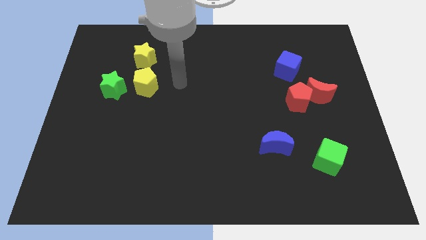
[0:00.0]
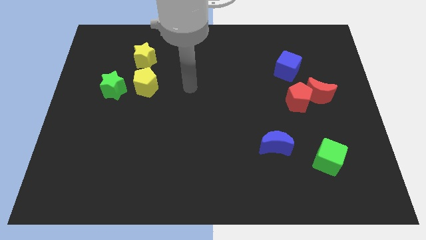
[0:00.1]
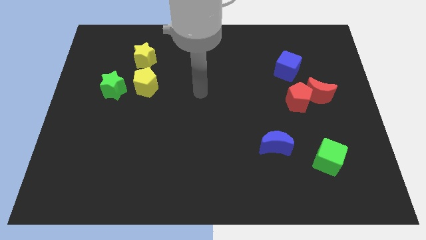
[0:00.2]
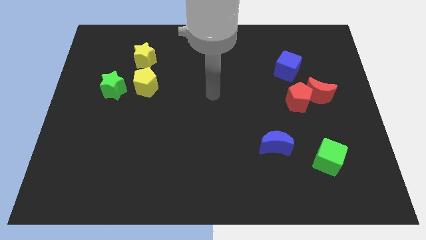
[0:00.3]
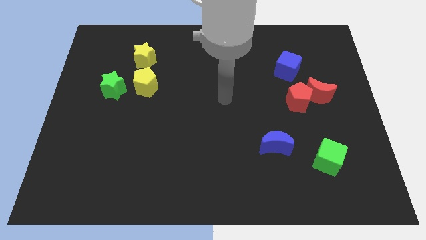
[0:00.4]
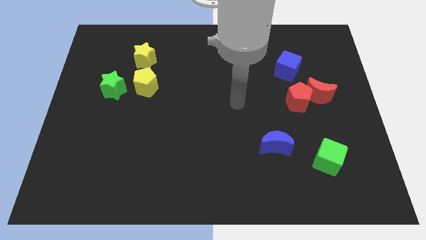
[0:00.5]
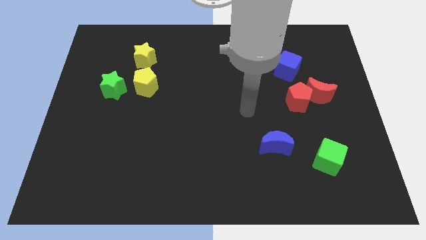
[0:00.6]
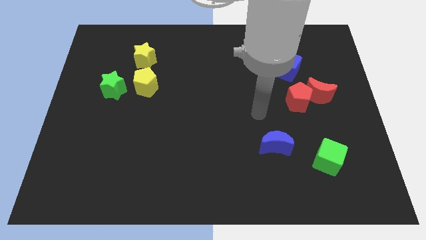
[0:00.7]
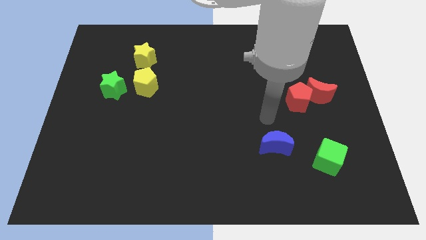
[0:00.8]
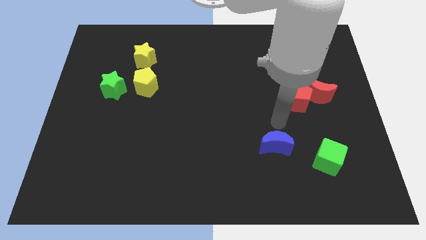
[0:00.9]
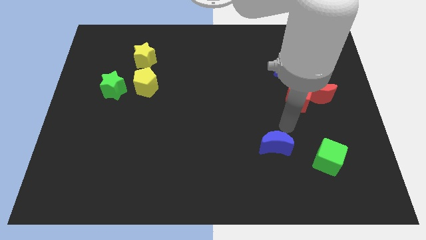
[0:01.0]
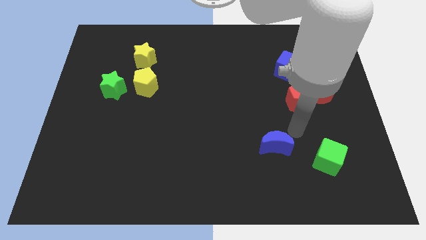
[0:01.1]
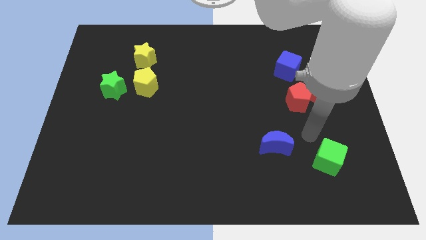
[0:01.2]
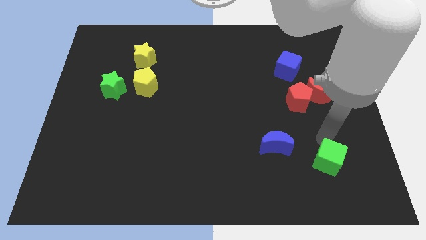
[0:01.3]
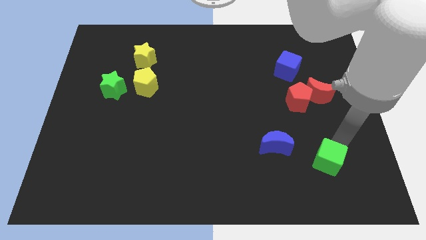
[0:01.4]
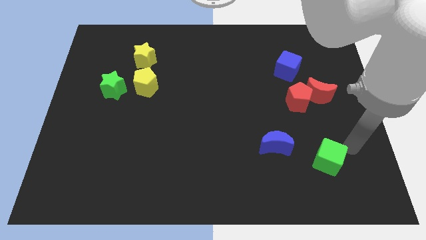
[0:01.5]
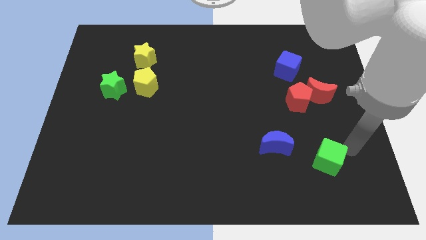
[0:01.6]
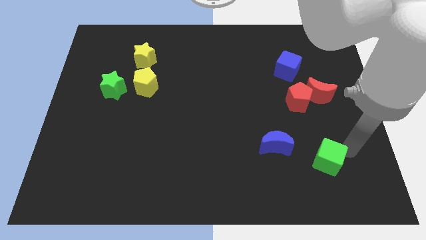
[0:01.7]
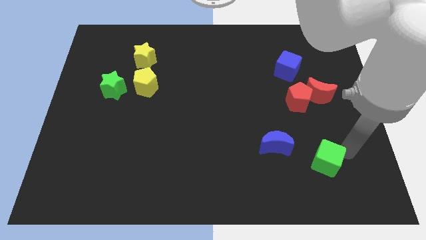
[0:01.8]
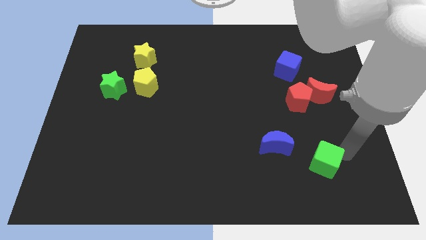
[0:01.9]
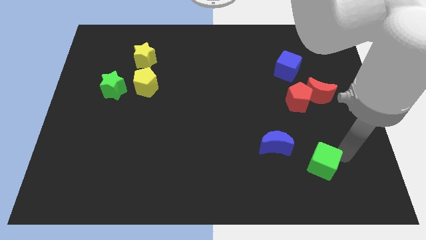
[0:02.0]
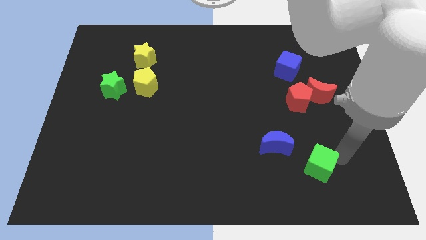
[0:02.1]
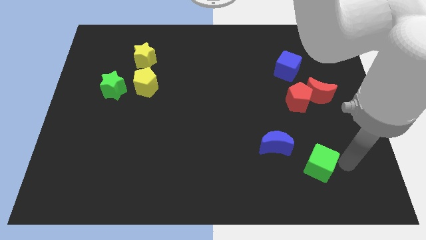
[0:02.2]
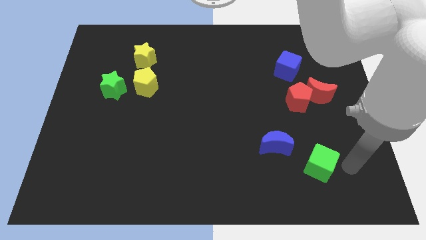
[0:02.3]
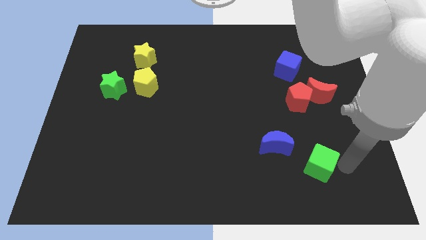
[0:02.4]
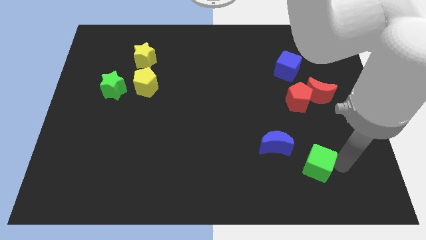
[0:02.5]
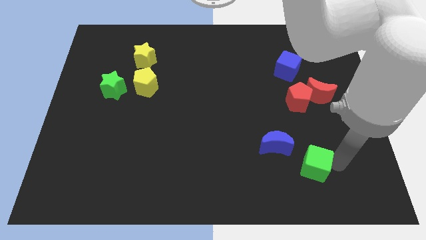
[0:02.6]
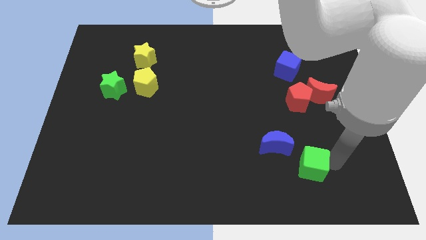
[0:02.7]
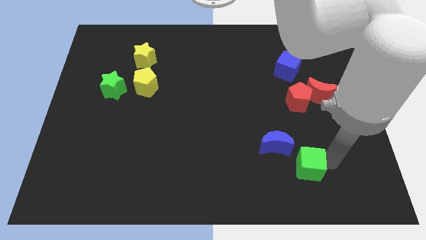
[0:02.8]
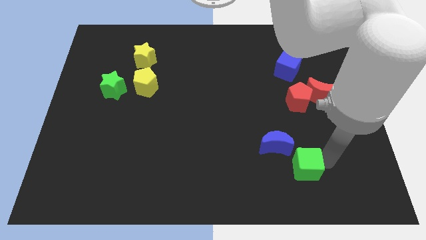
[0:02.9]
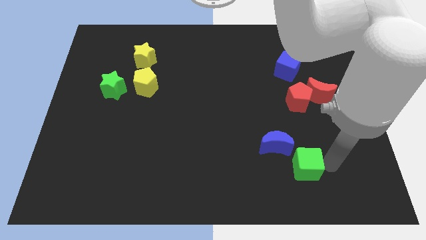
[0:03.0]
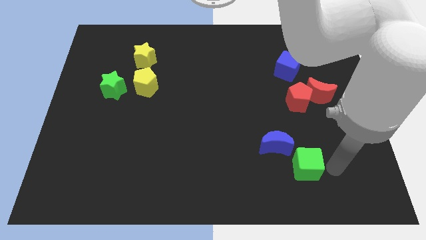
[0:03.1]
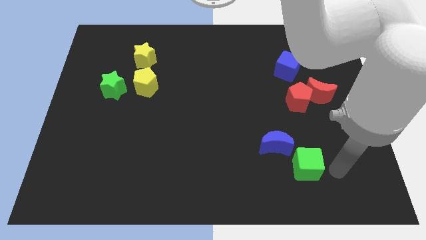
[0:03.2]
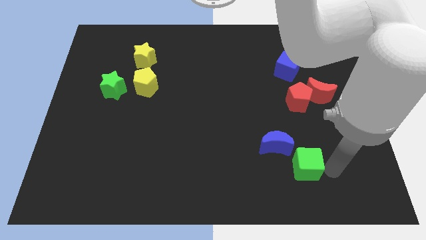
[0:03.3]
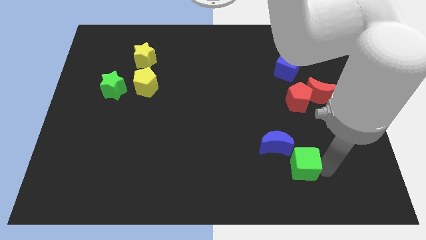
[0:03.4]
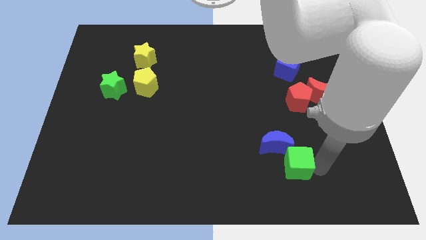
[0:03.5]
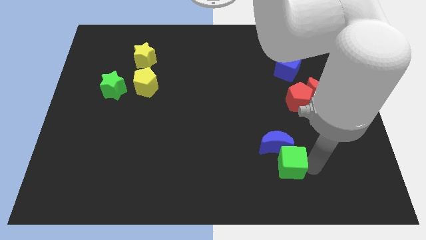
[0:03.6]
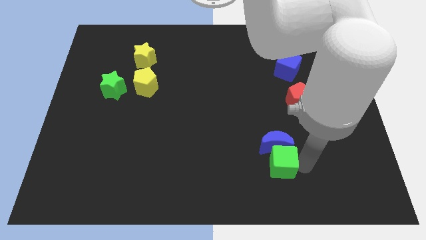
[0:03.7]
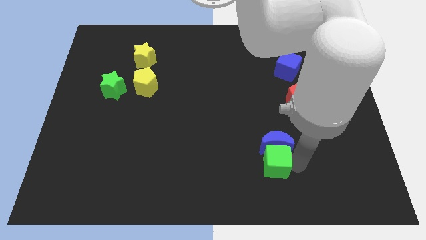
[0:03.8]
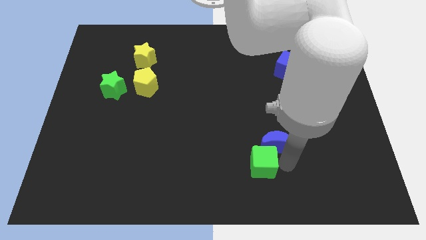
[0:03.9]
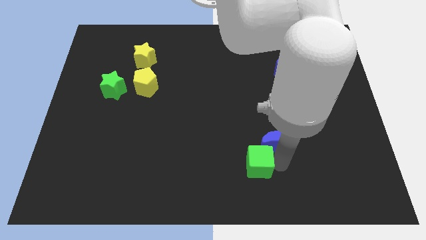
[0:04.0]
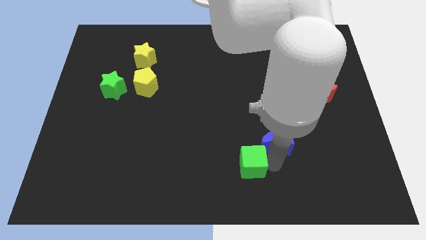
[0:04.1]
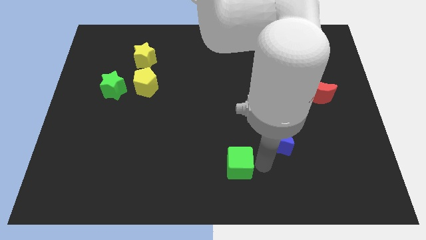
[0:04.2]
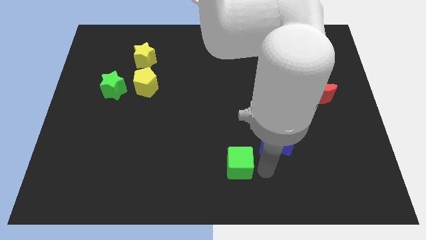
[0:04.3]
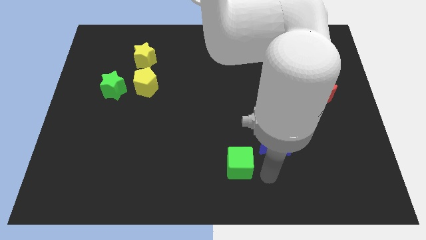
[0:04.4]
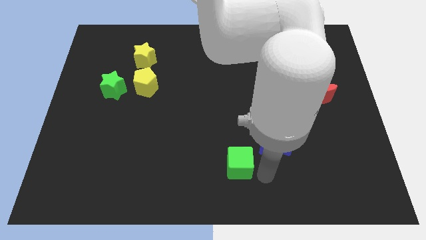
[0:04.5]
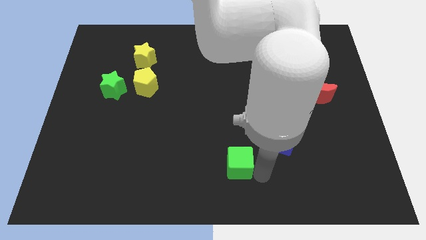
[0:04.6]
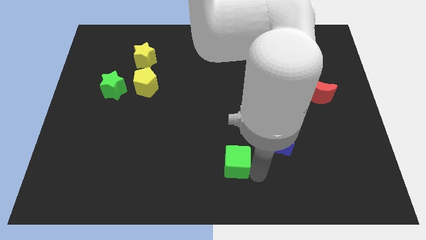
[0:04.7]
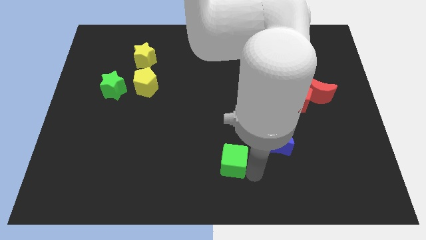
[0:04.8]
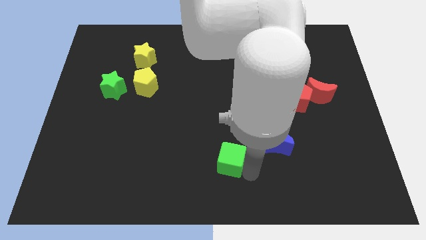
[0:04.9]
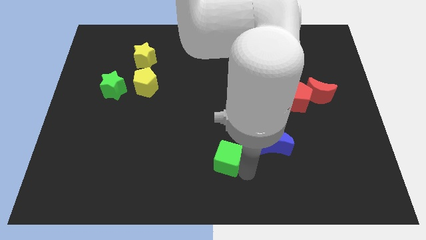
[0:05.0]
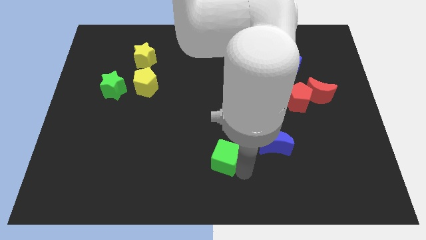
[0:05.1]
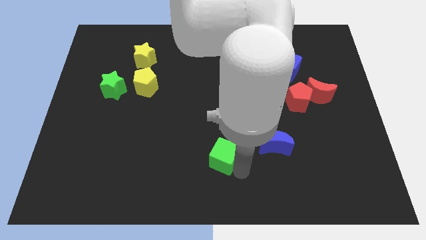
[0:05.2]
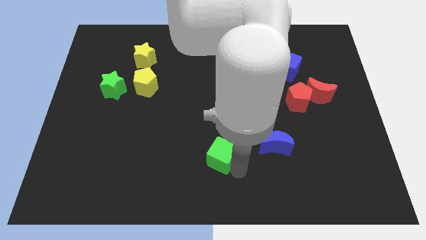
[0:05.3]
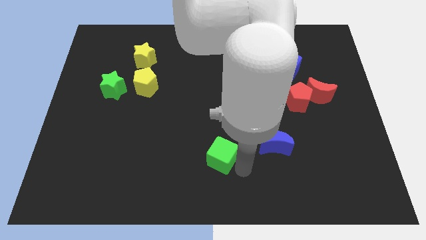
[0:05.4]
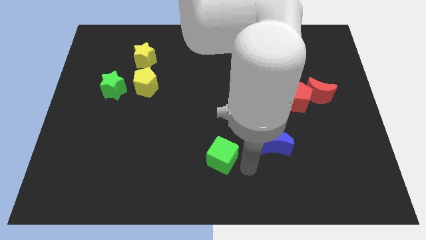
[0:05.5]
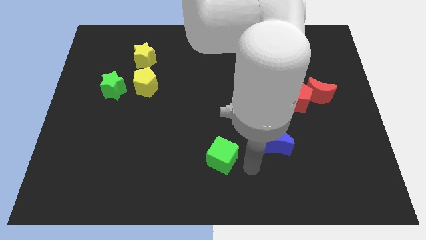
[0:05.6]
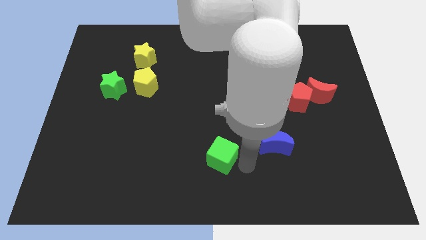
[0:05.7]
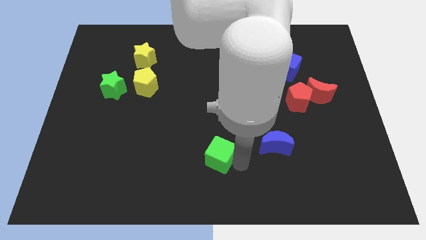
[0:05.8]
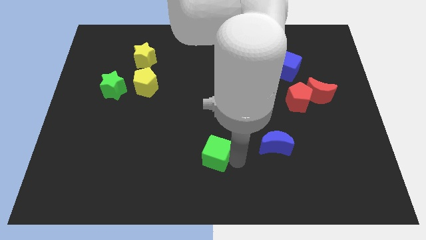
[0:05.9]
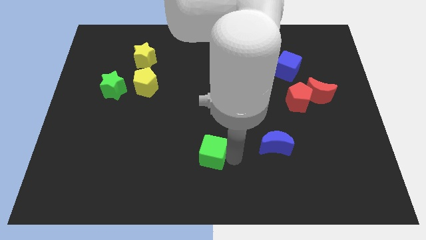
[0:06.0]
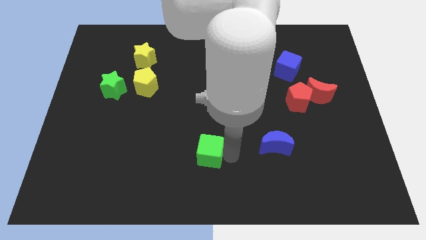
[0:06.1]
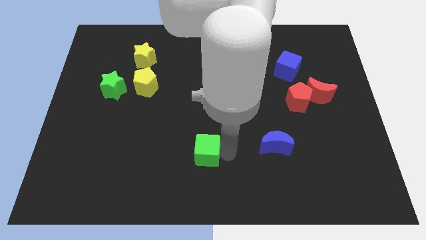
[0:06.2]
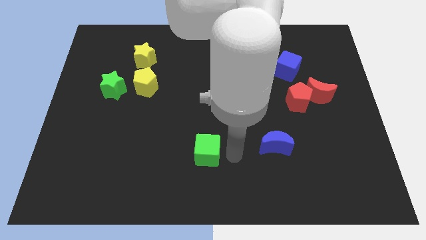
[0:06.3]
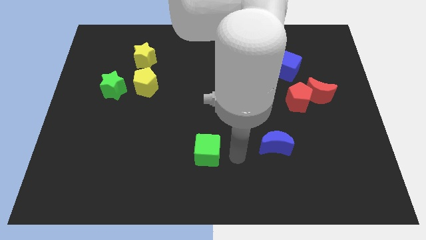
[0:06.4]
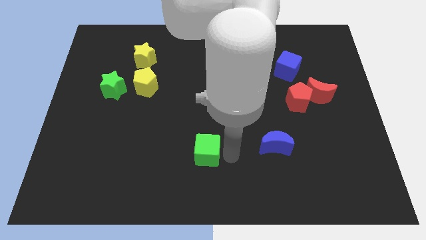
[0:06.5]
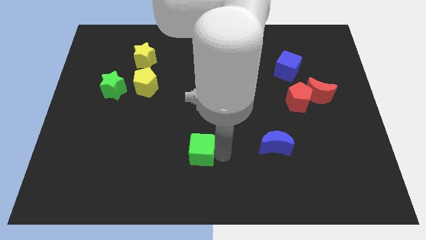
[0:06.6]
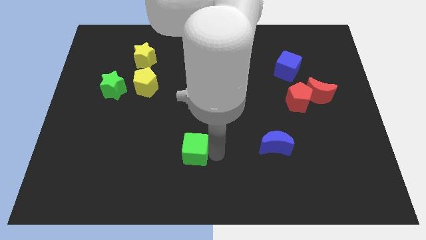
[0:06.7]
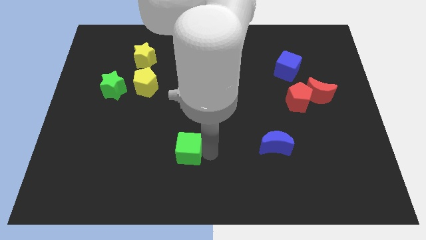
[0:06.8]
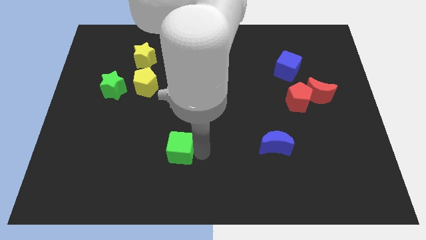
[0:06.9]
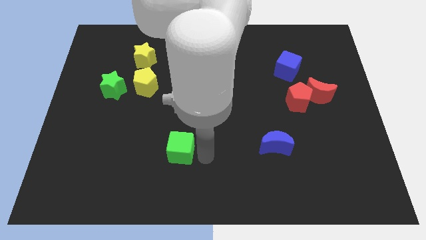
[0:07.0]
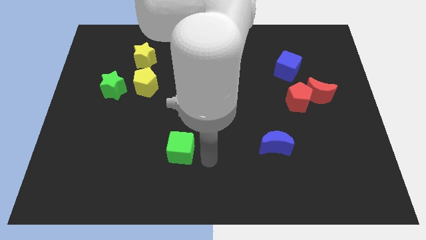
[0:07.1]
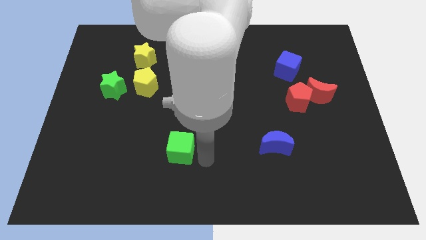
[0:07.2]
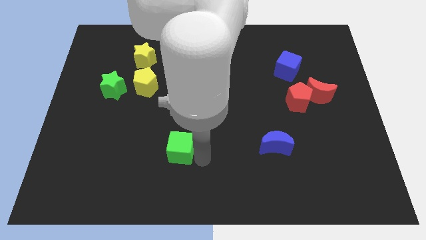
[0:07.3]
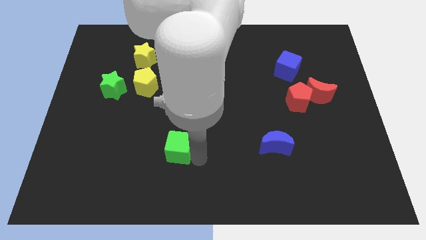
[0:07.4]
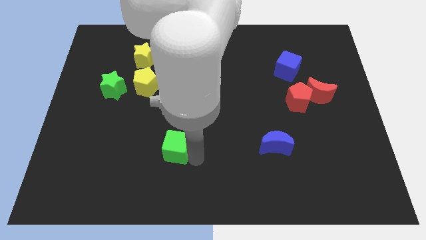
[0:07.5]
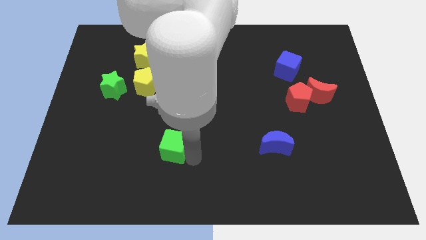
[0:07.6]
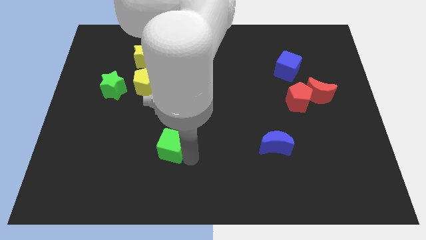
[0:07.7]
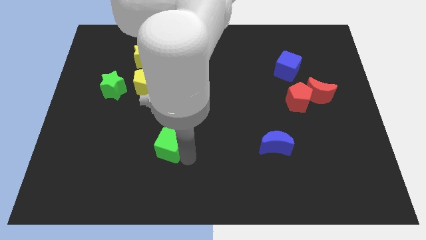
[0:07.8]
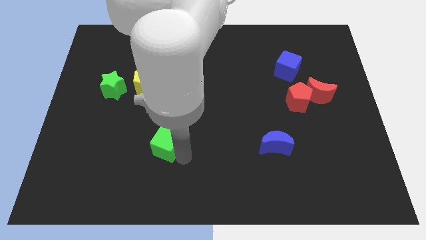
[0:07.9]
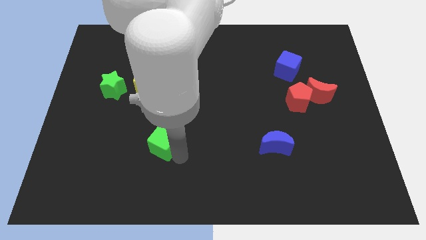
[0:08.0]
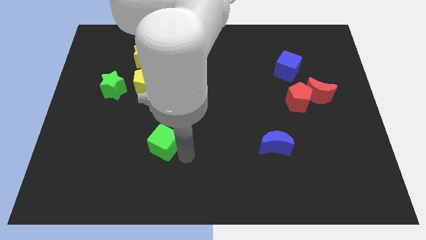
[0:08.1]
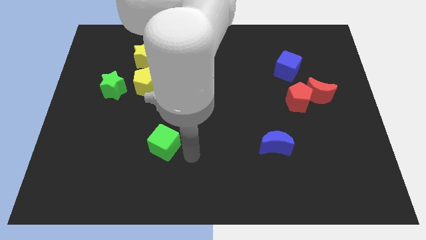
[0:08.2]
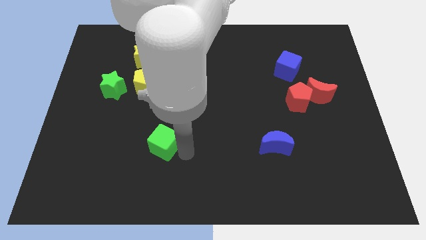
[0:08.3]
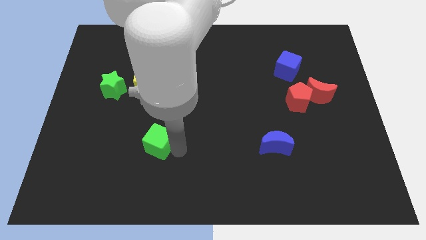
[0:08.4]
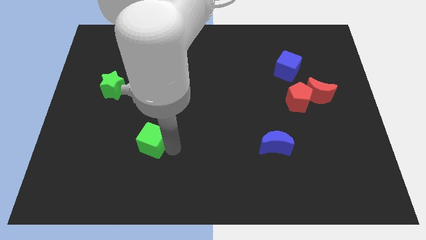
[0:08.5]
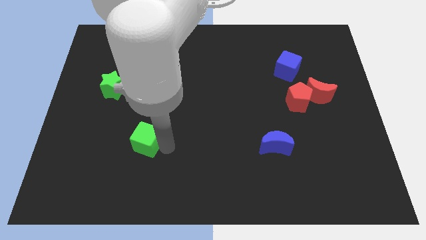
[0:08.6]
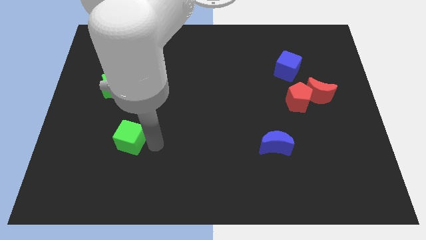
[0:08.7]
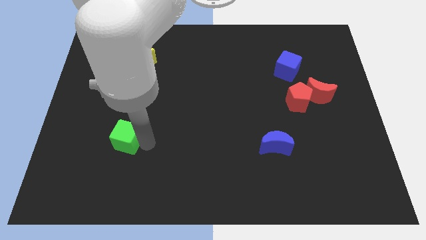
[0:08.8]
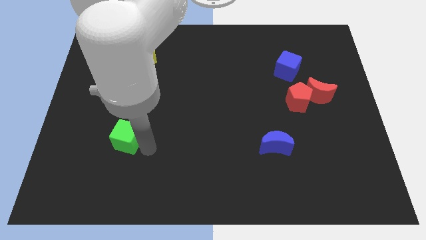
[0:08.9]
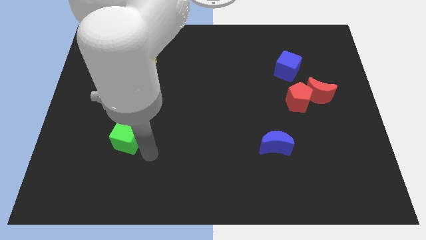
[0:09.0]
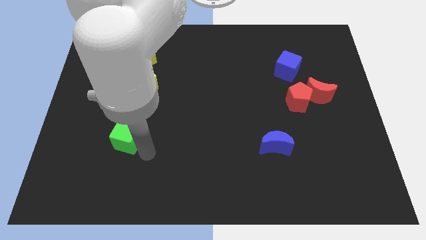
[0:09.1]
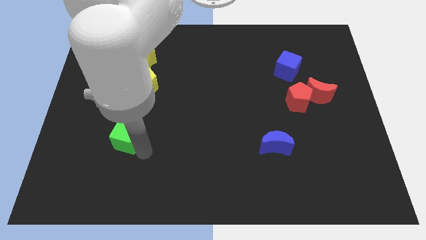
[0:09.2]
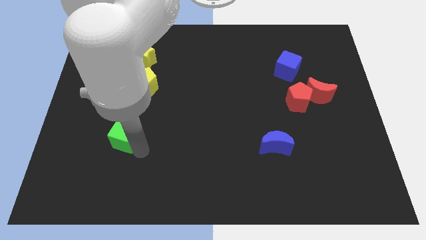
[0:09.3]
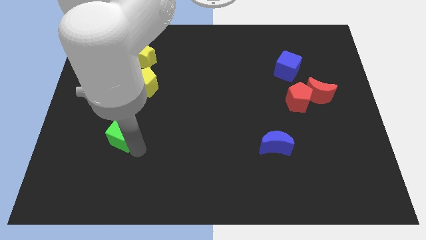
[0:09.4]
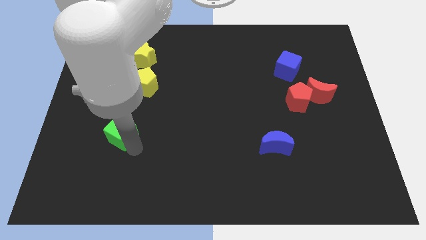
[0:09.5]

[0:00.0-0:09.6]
push the green cube to the bottom of the green star
